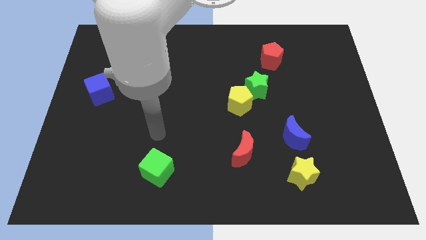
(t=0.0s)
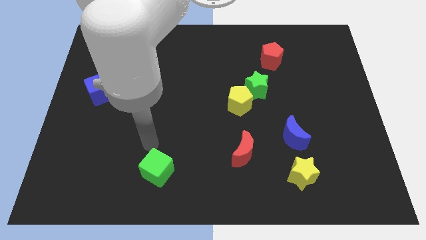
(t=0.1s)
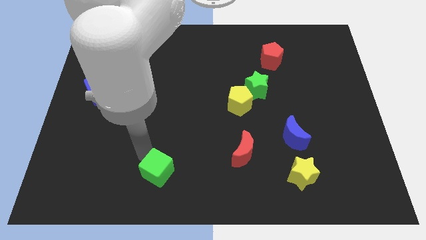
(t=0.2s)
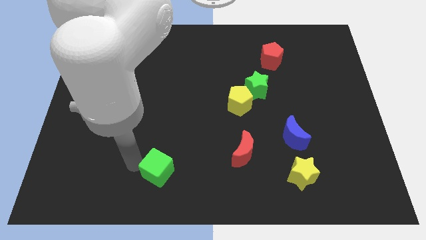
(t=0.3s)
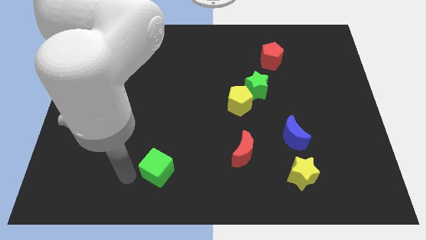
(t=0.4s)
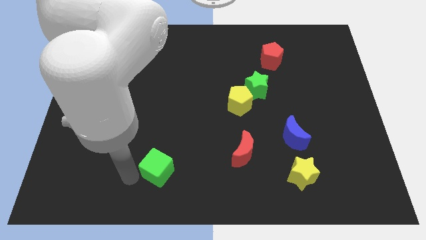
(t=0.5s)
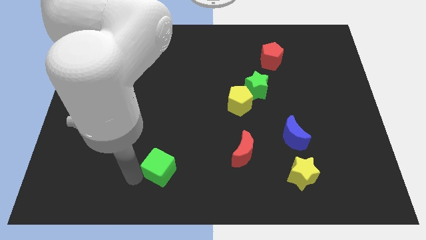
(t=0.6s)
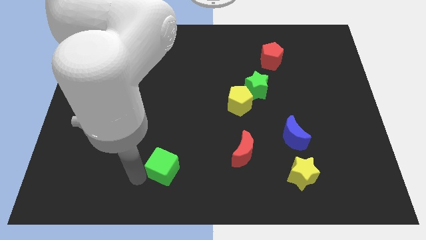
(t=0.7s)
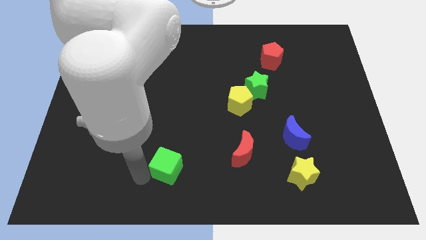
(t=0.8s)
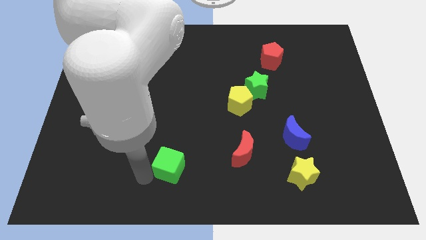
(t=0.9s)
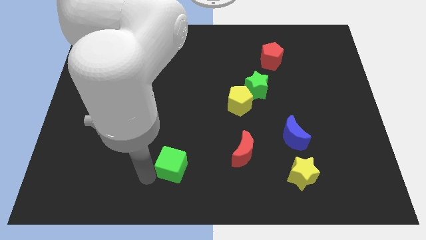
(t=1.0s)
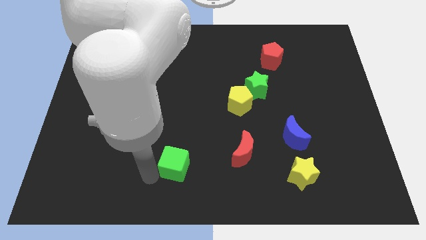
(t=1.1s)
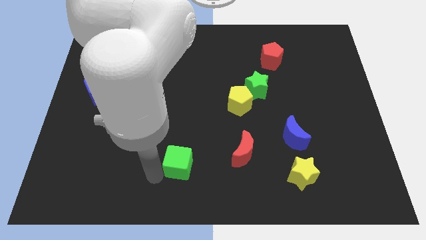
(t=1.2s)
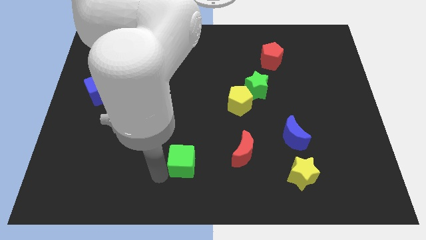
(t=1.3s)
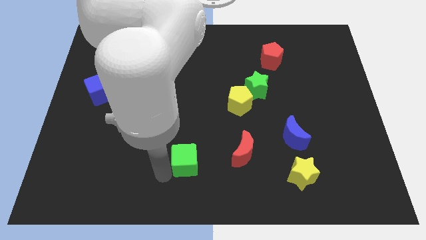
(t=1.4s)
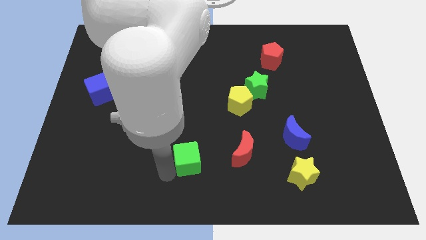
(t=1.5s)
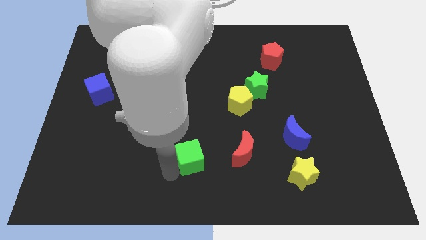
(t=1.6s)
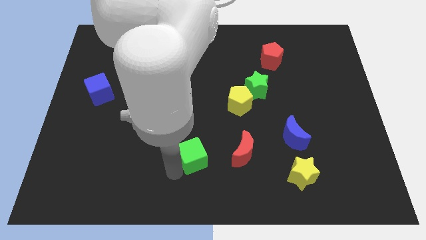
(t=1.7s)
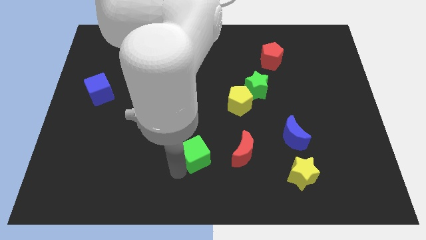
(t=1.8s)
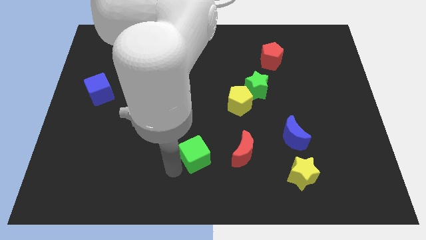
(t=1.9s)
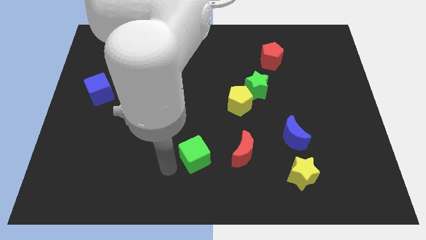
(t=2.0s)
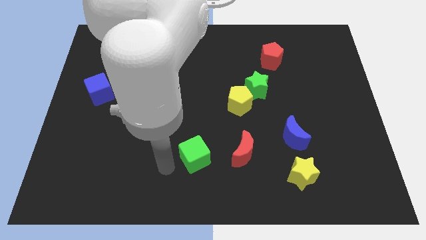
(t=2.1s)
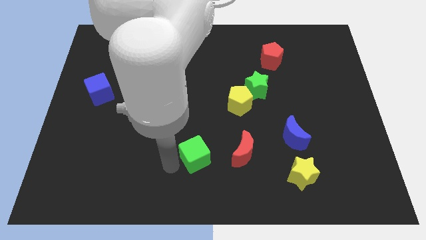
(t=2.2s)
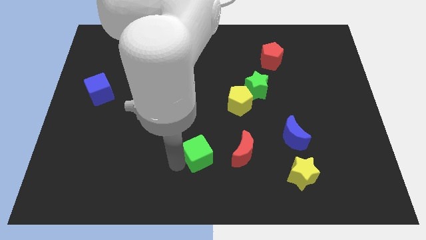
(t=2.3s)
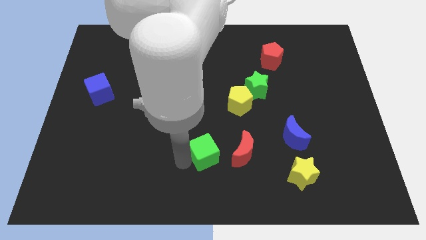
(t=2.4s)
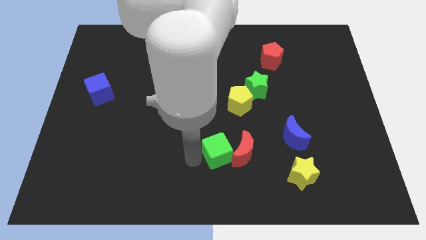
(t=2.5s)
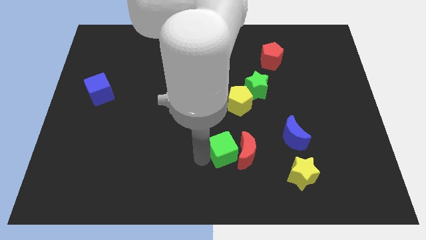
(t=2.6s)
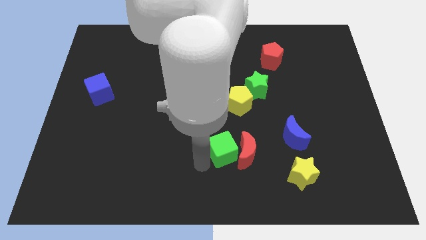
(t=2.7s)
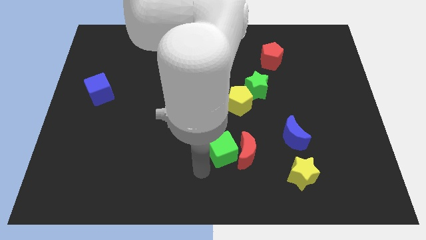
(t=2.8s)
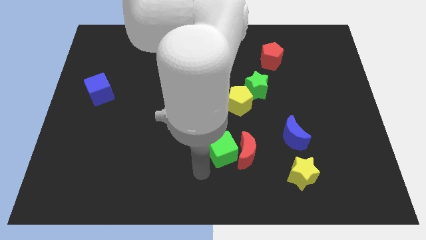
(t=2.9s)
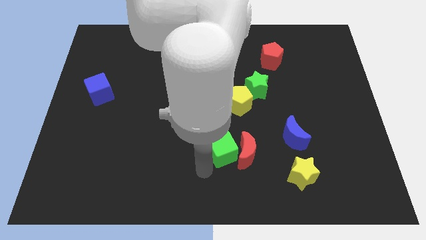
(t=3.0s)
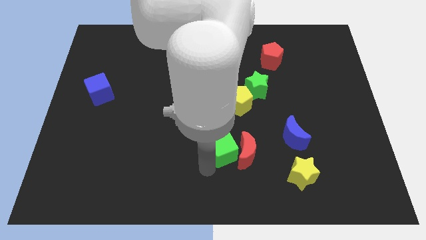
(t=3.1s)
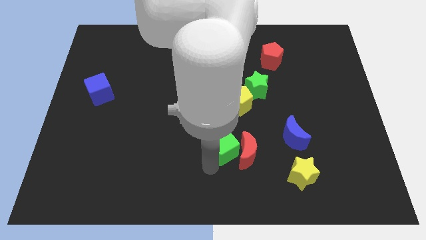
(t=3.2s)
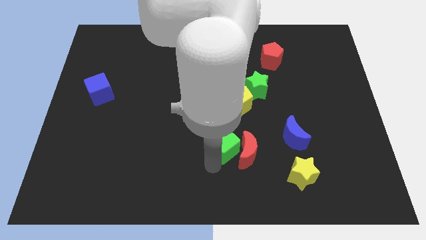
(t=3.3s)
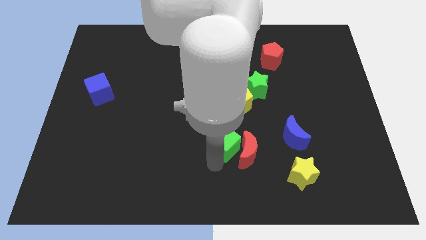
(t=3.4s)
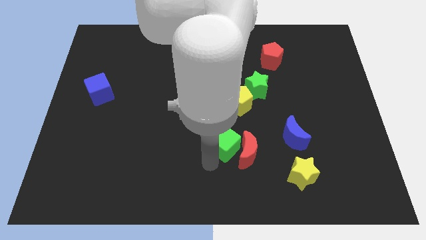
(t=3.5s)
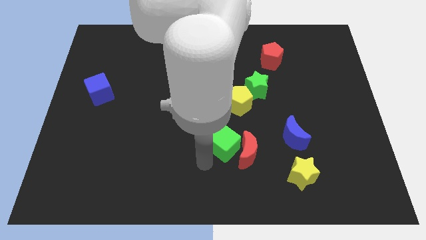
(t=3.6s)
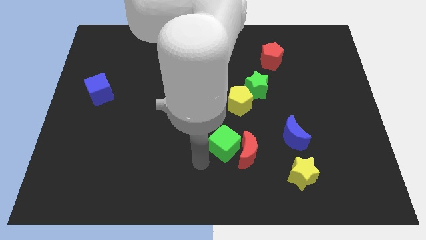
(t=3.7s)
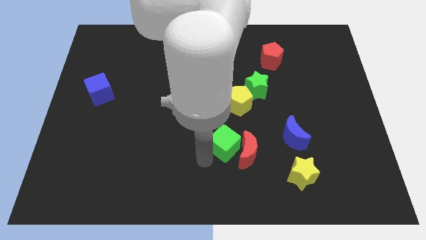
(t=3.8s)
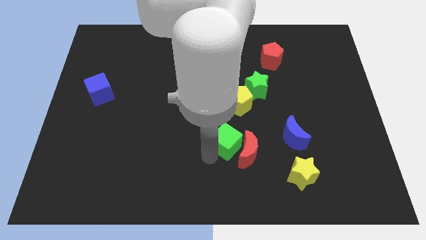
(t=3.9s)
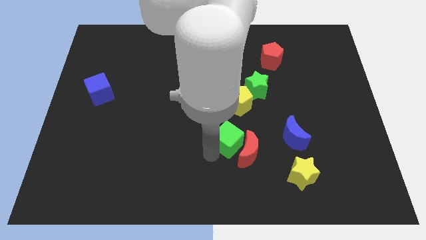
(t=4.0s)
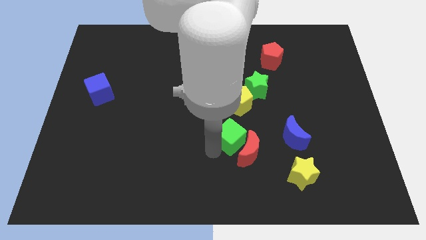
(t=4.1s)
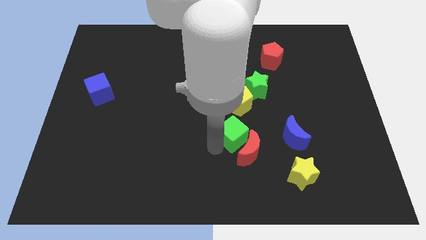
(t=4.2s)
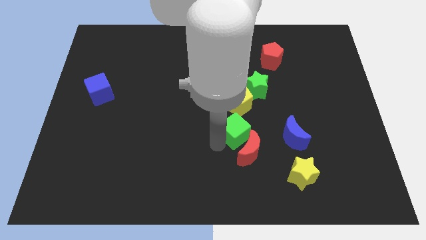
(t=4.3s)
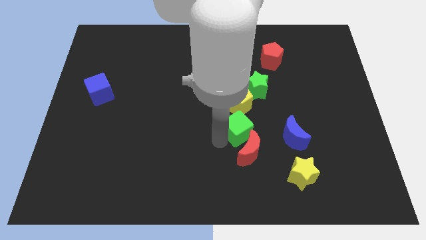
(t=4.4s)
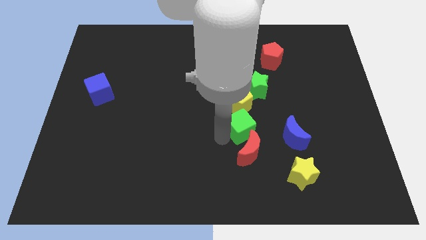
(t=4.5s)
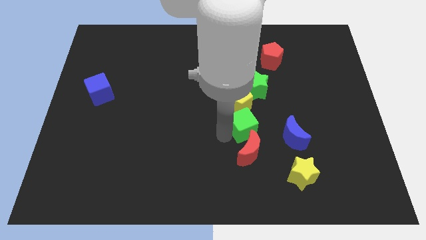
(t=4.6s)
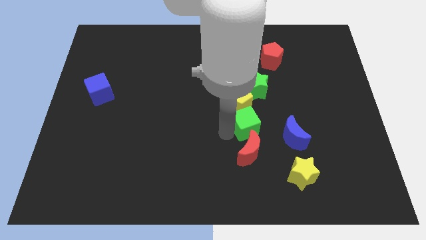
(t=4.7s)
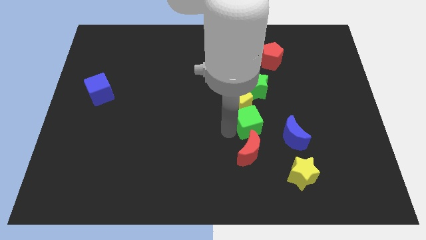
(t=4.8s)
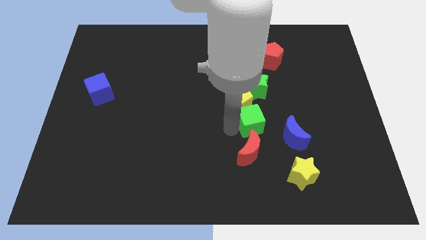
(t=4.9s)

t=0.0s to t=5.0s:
put the green cube to the top right side of the red moon

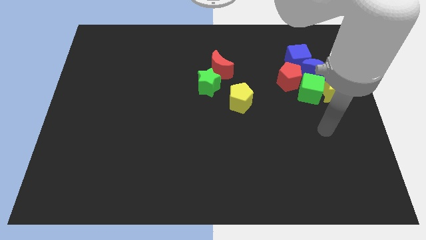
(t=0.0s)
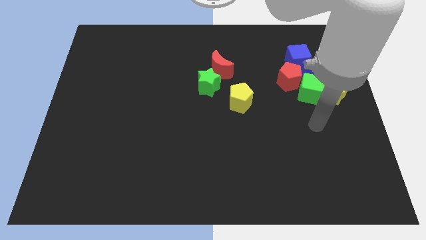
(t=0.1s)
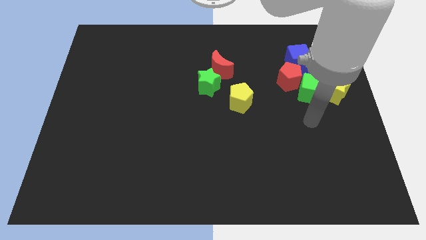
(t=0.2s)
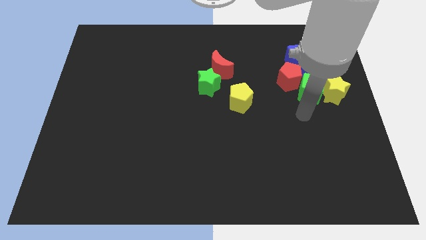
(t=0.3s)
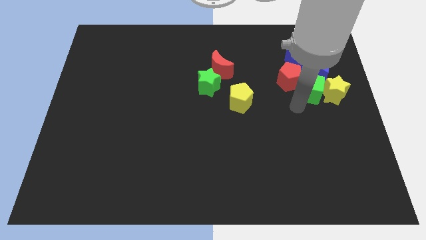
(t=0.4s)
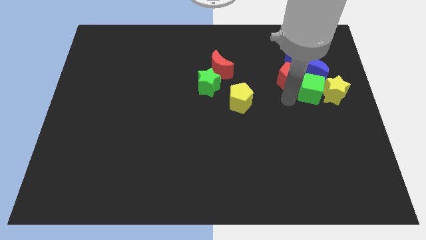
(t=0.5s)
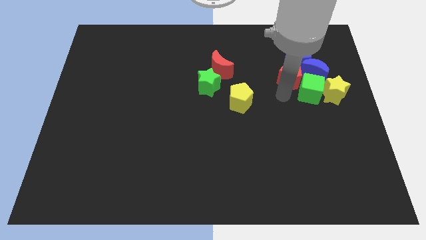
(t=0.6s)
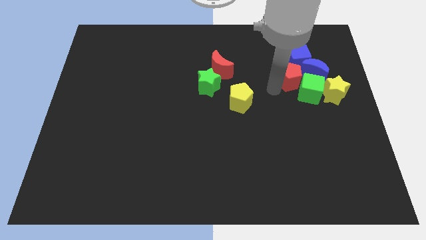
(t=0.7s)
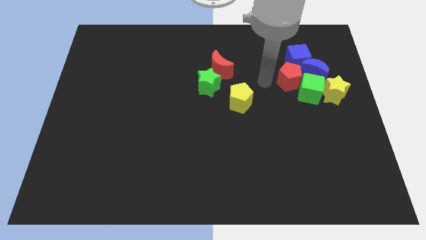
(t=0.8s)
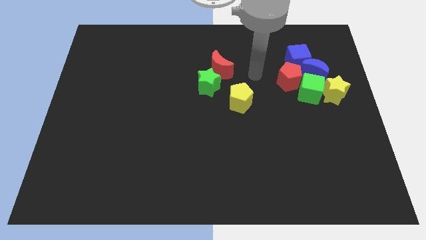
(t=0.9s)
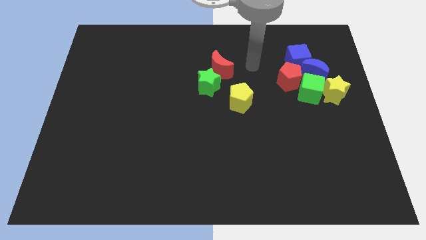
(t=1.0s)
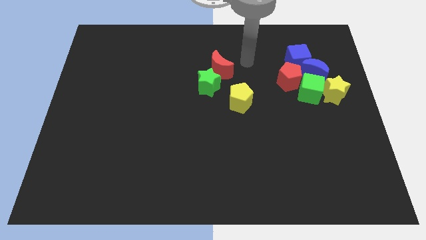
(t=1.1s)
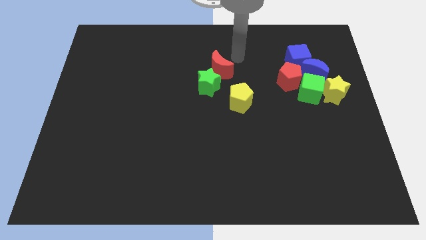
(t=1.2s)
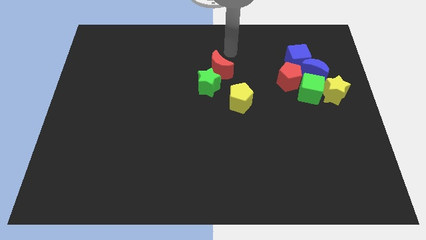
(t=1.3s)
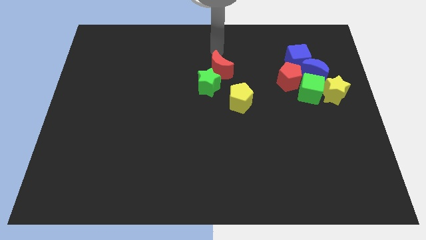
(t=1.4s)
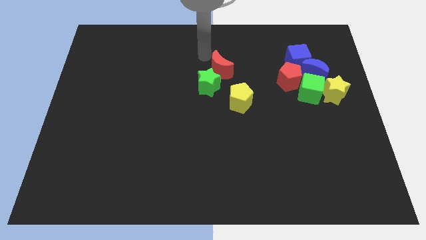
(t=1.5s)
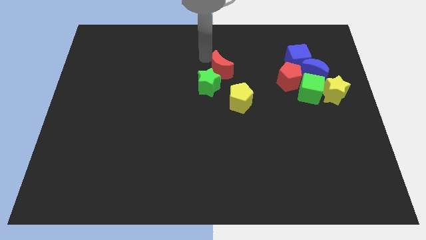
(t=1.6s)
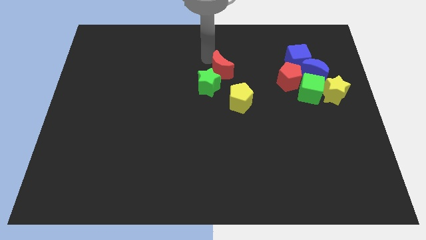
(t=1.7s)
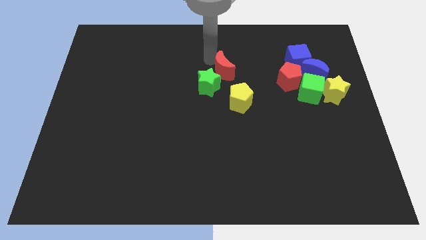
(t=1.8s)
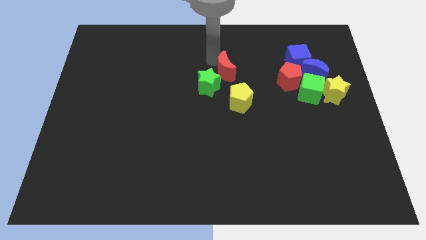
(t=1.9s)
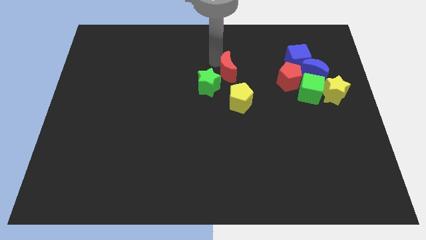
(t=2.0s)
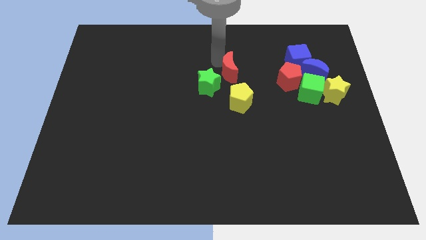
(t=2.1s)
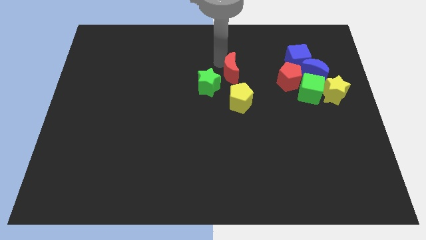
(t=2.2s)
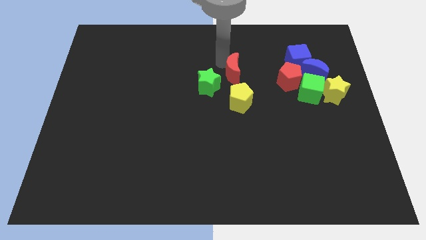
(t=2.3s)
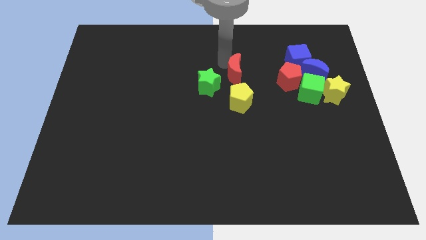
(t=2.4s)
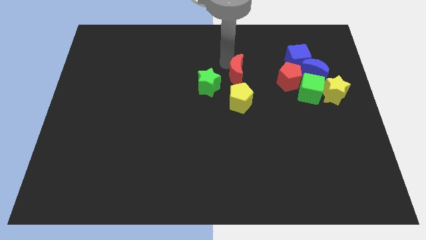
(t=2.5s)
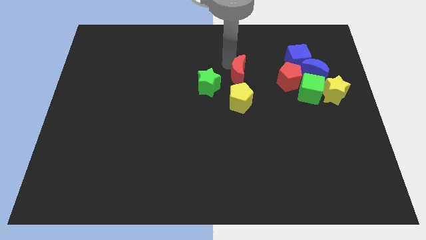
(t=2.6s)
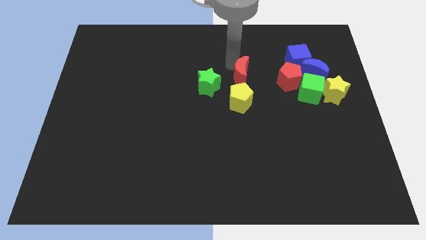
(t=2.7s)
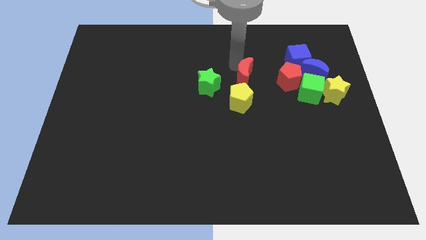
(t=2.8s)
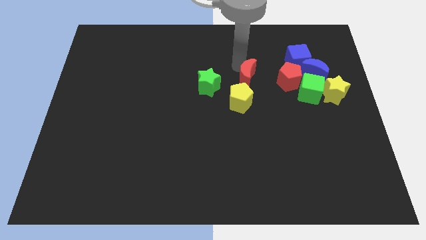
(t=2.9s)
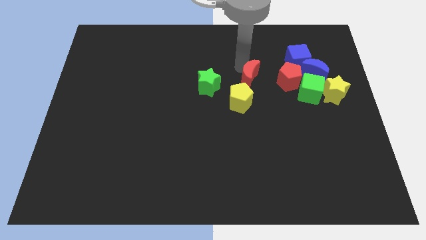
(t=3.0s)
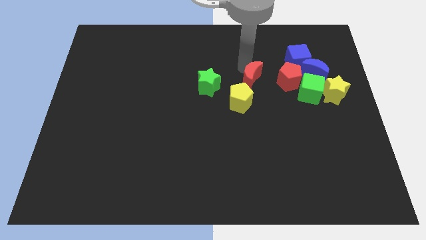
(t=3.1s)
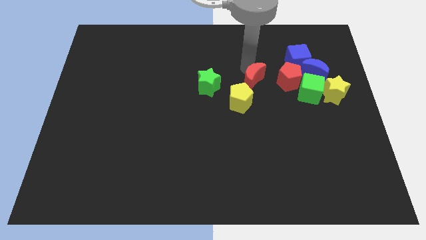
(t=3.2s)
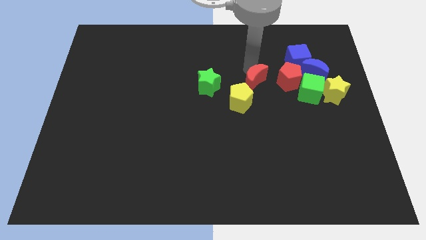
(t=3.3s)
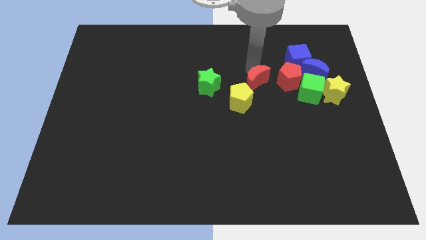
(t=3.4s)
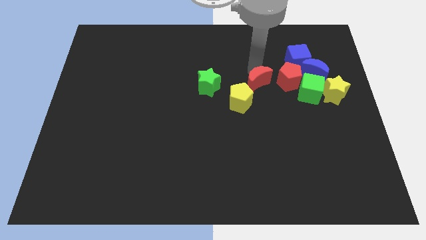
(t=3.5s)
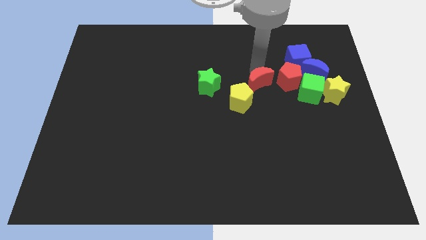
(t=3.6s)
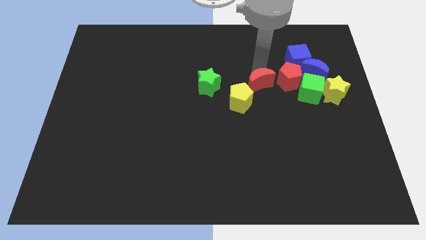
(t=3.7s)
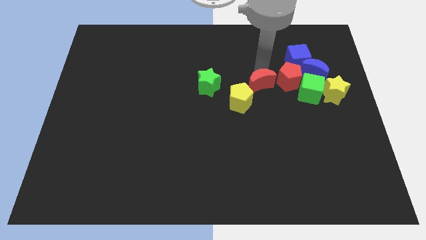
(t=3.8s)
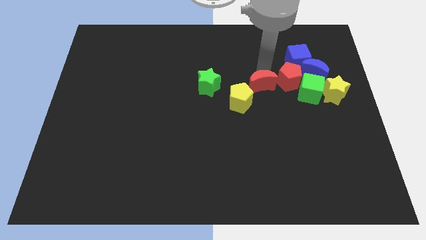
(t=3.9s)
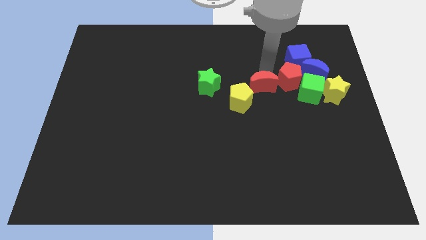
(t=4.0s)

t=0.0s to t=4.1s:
push the red moon right of the yellow pentagon
